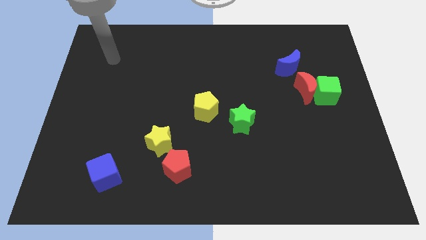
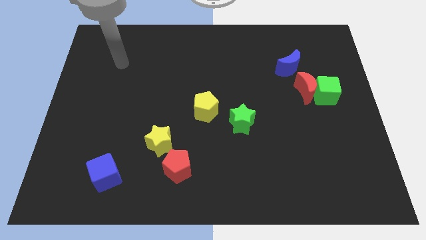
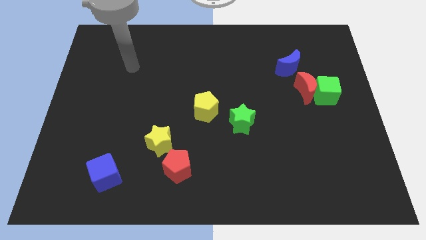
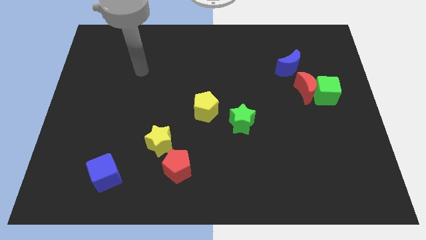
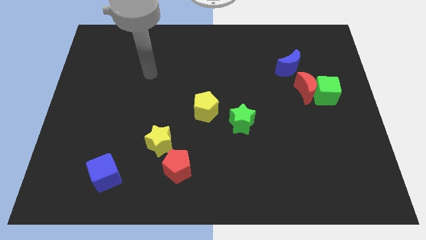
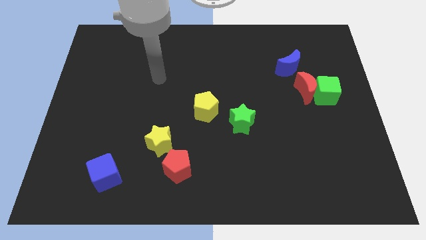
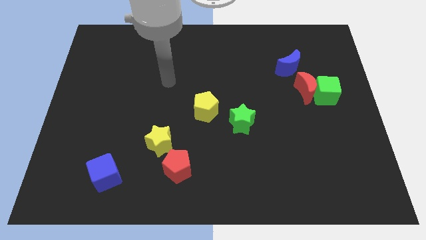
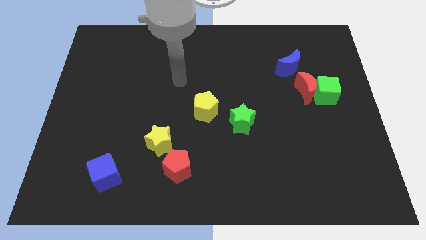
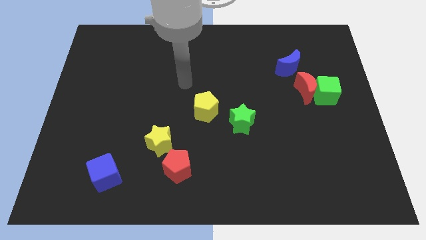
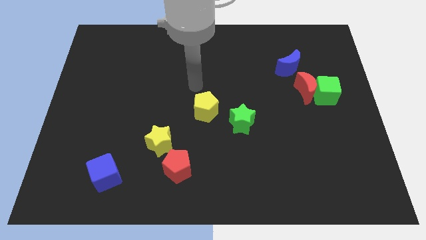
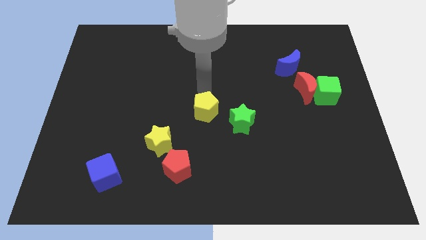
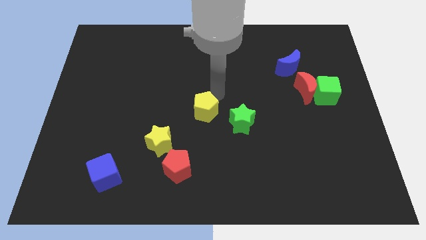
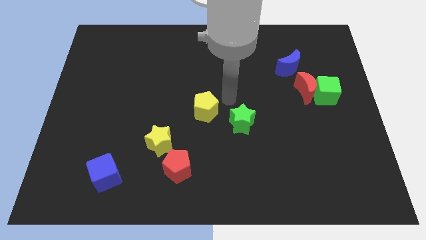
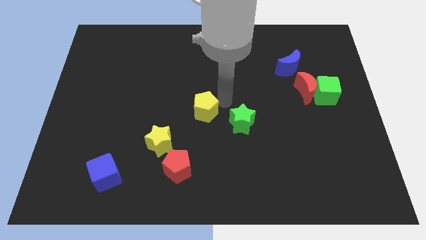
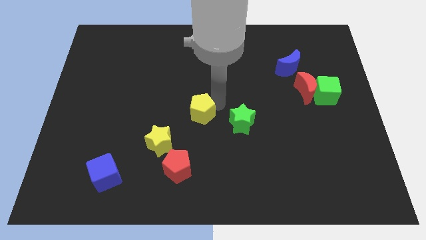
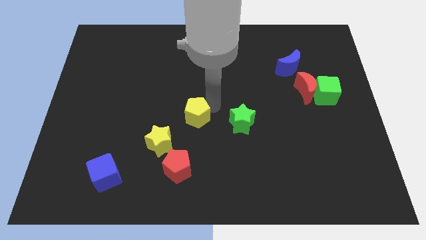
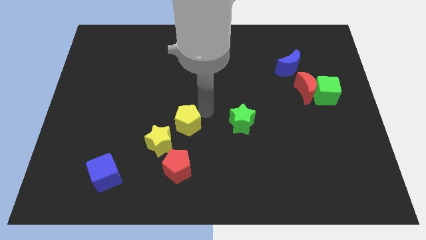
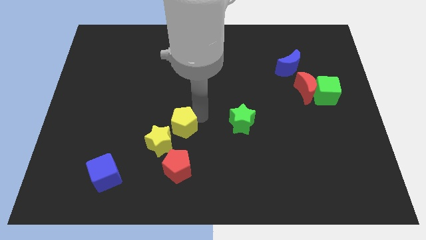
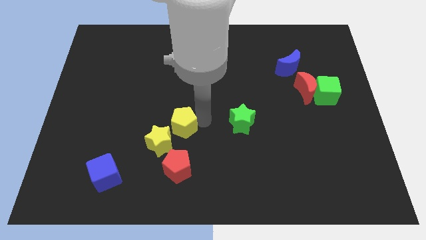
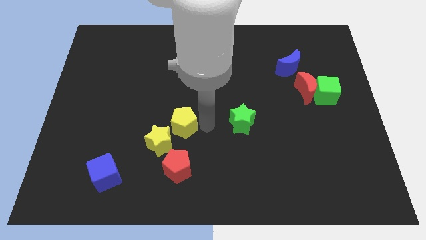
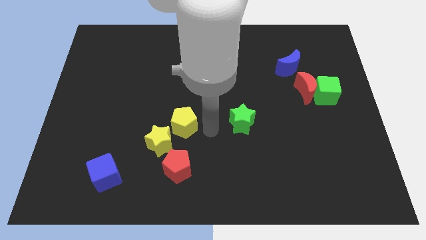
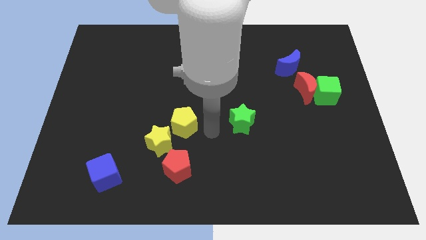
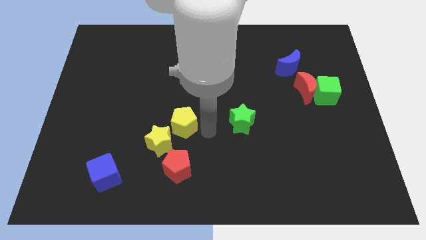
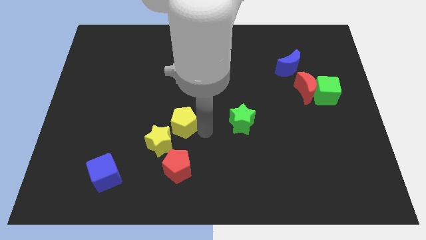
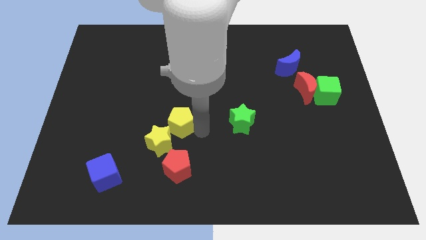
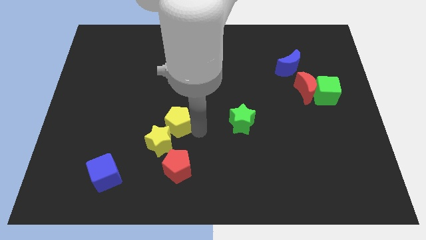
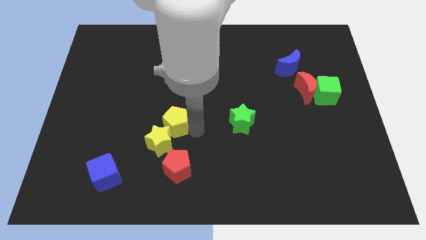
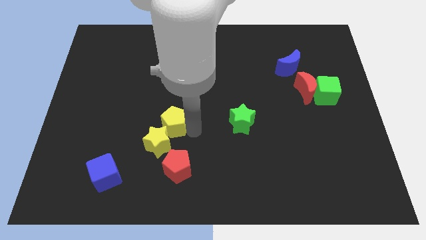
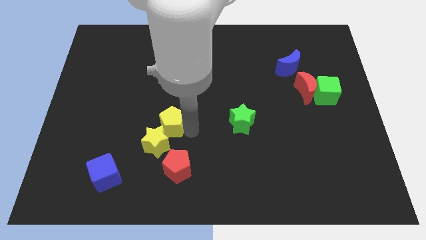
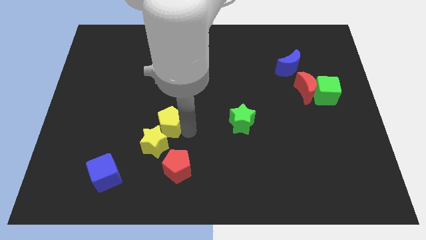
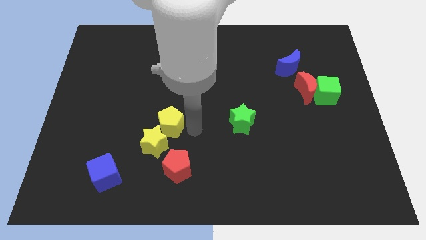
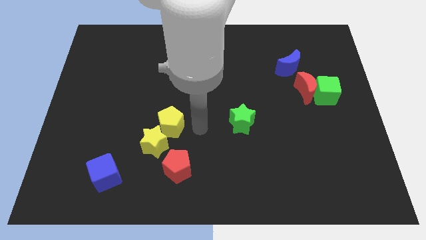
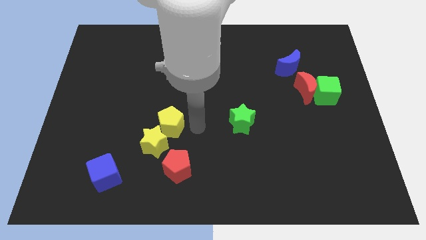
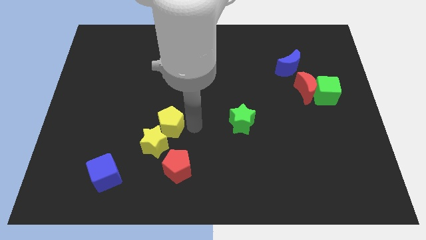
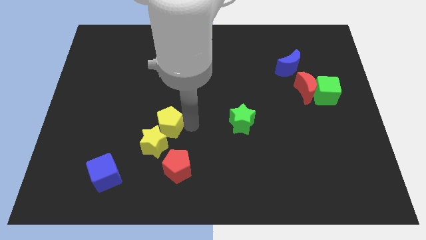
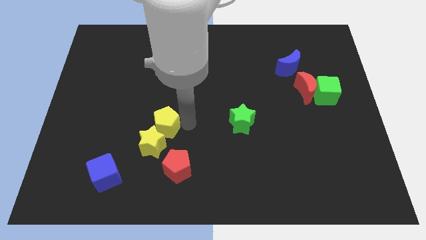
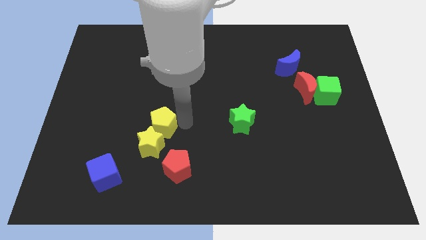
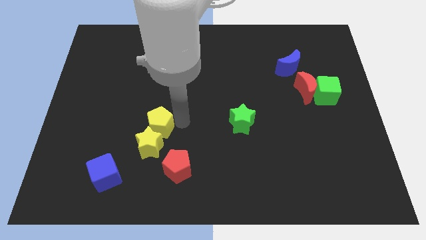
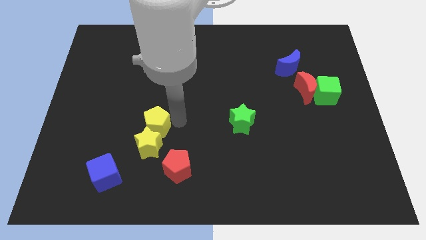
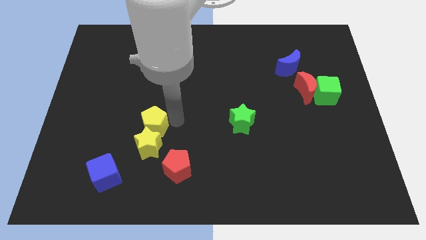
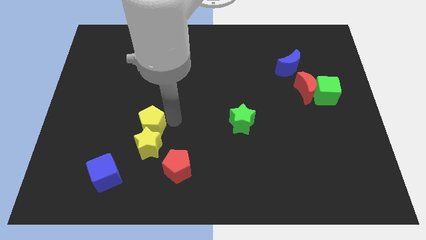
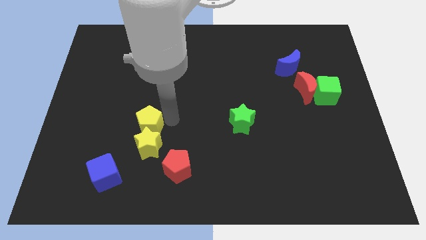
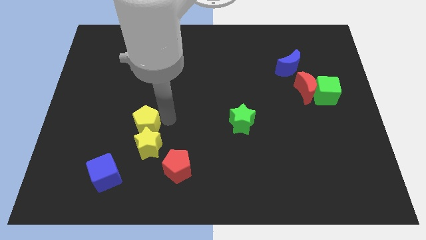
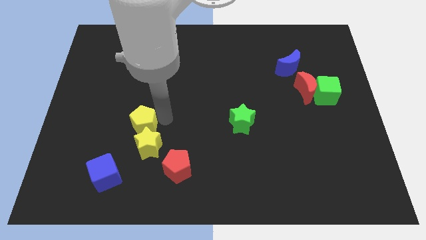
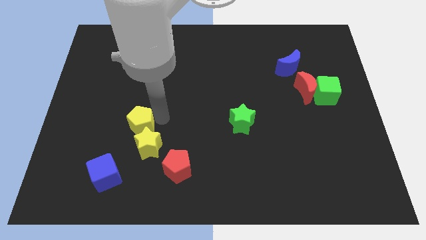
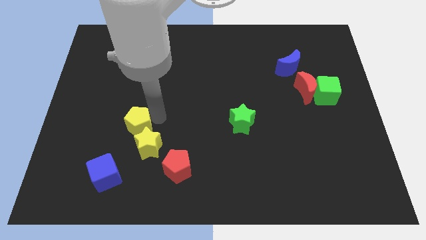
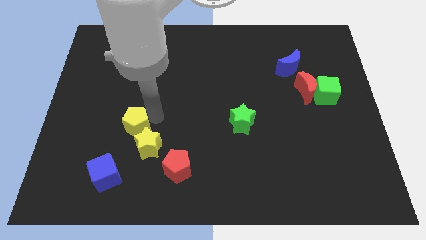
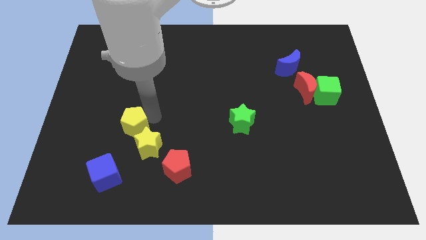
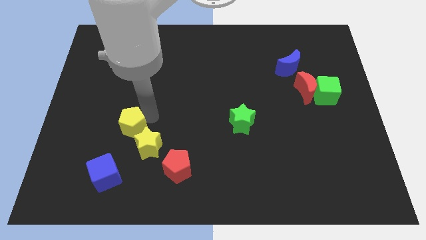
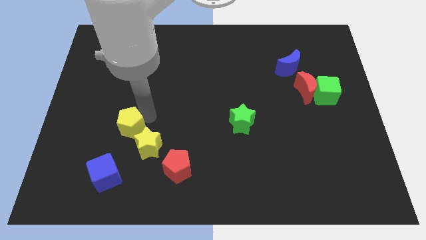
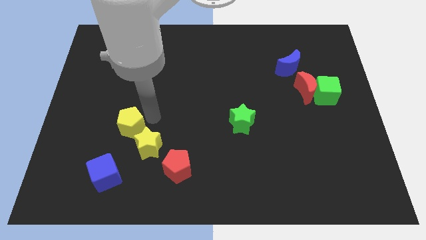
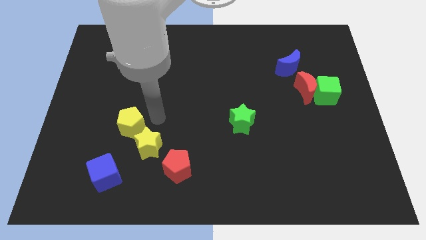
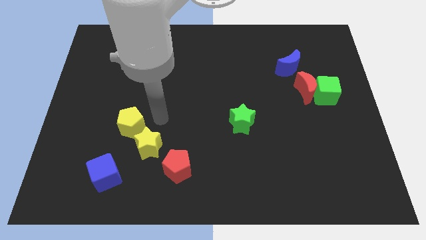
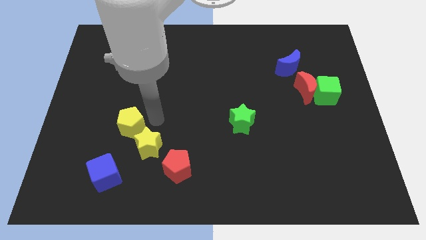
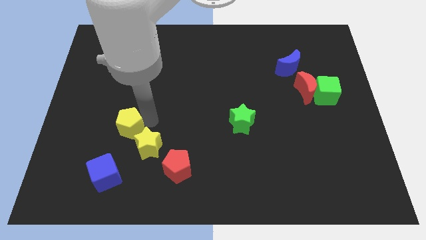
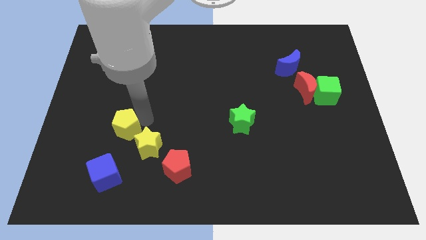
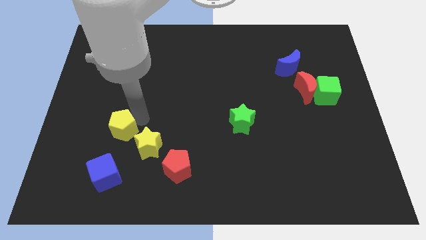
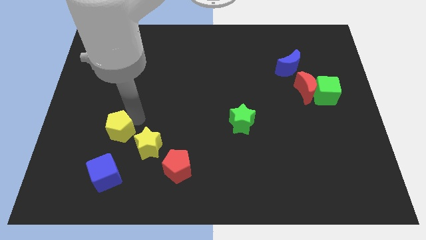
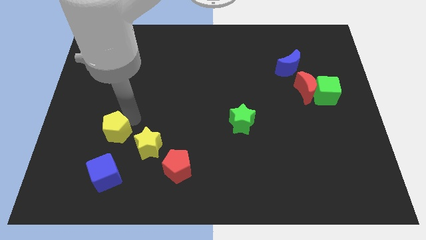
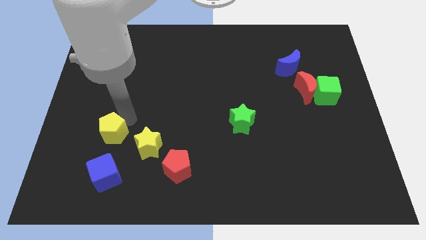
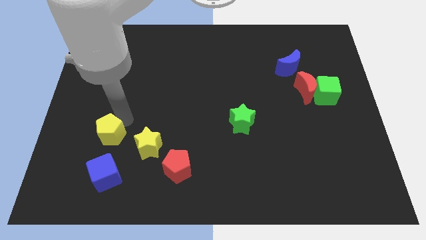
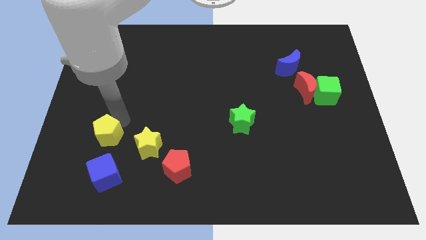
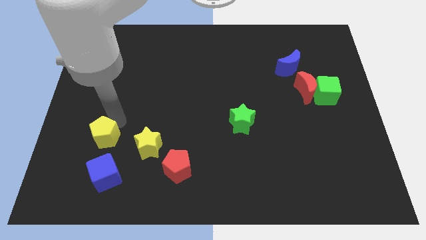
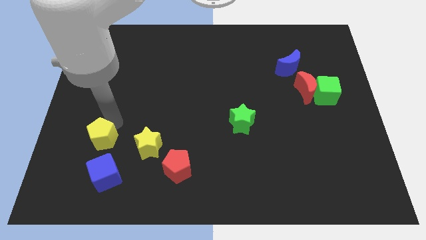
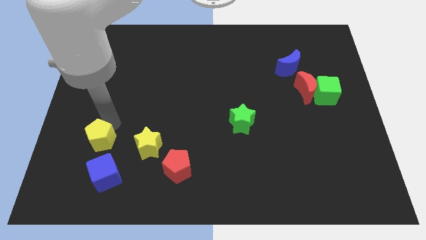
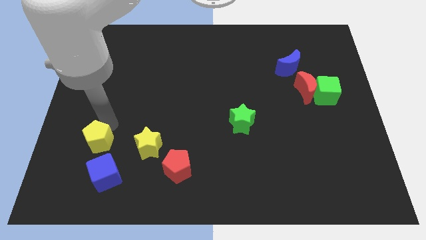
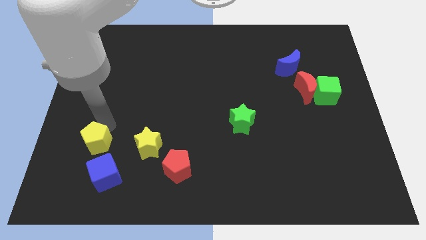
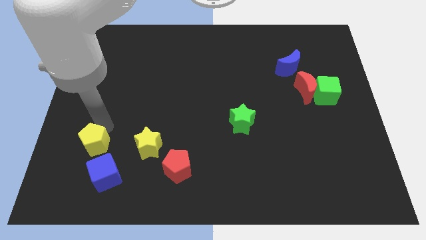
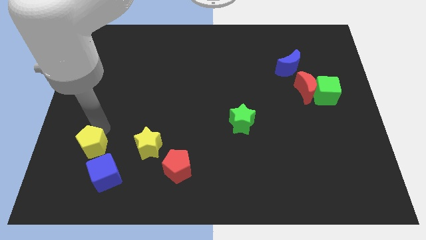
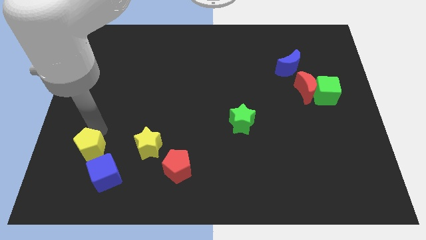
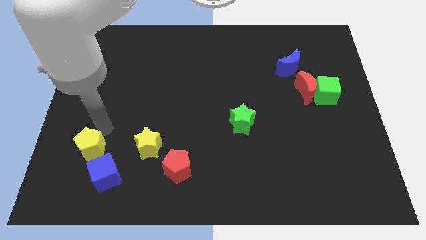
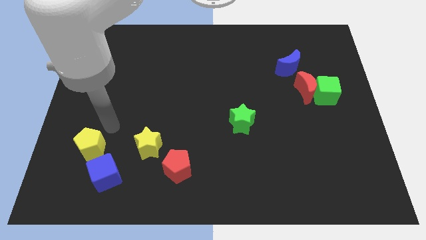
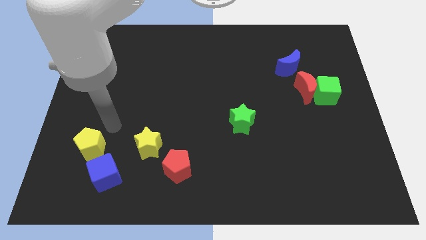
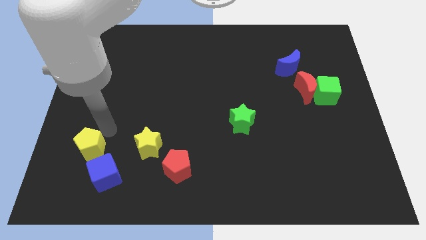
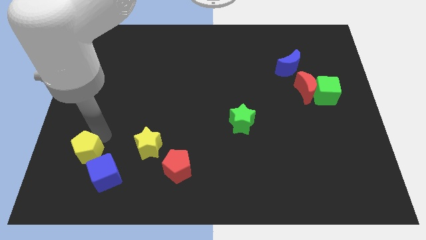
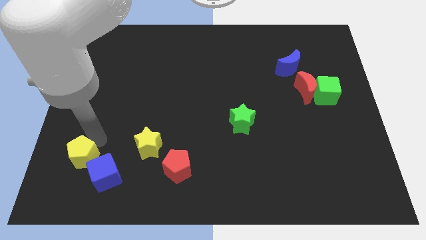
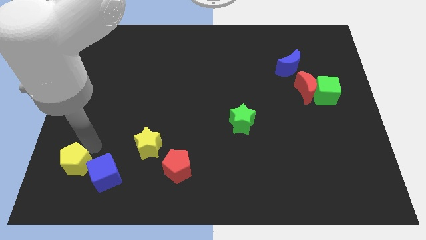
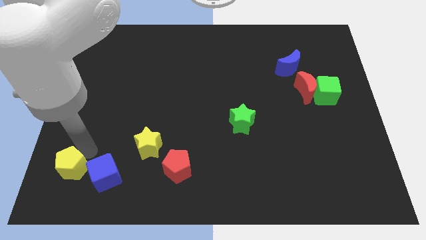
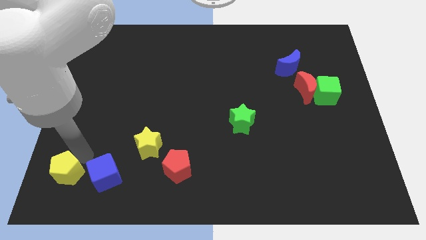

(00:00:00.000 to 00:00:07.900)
put the yellow pentagon to the bottom left corner
